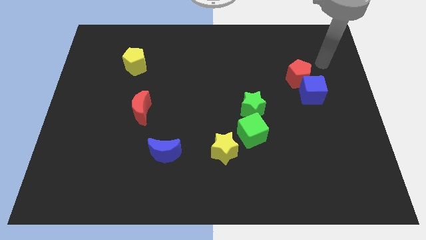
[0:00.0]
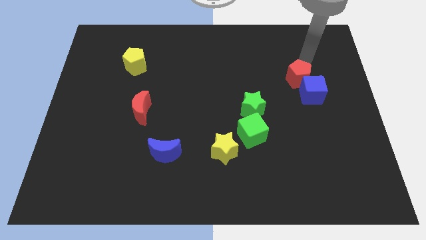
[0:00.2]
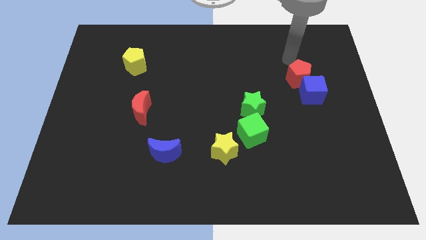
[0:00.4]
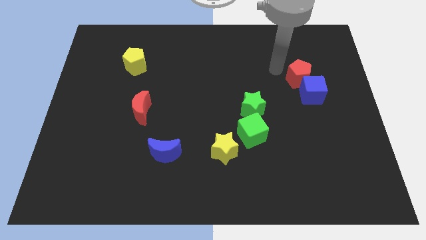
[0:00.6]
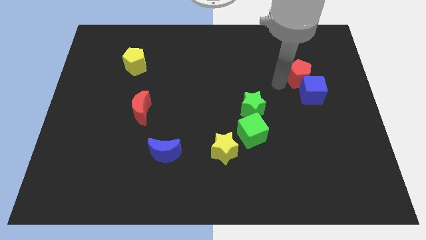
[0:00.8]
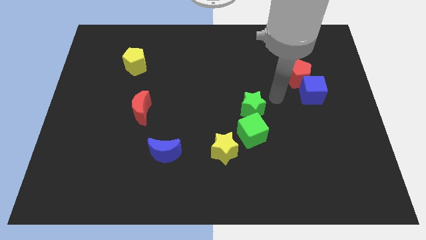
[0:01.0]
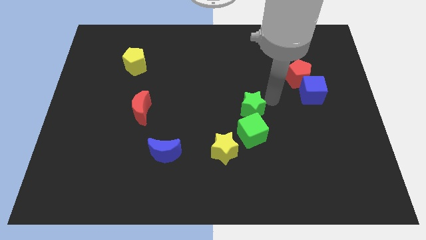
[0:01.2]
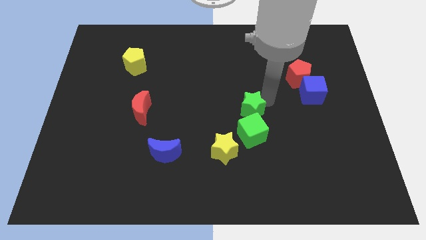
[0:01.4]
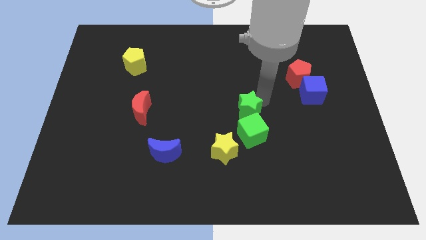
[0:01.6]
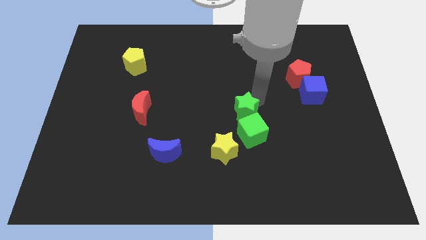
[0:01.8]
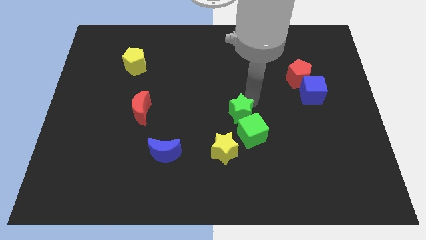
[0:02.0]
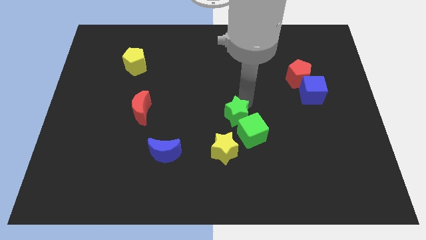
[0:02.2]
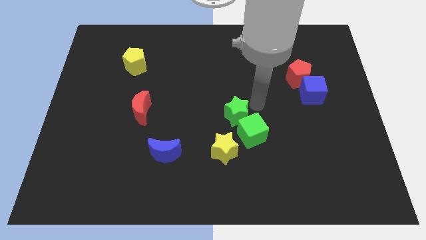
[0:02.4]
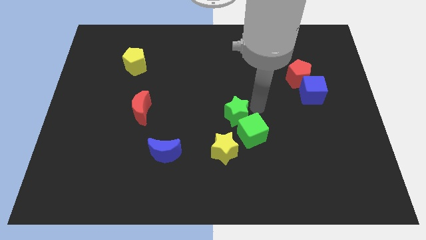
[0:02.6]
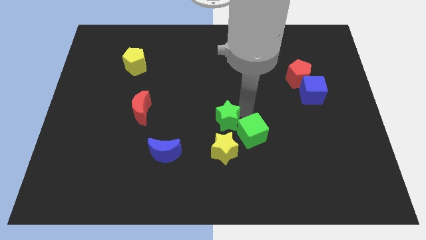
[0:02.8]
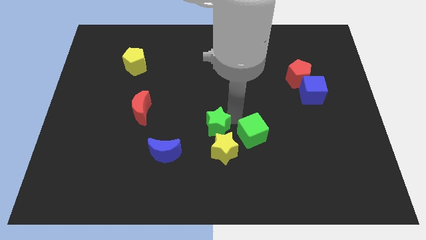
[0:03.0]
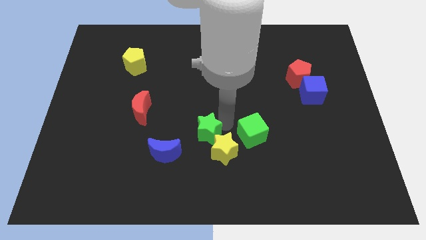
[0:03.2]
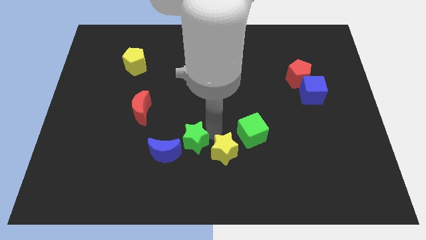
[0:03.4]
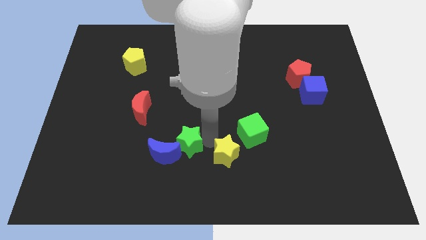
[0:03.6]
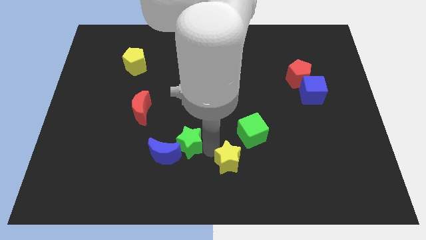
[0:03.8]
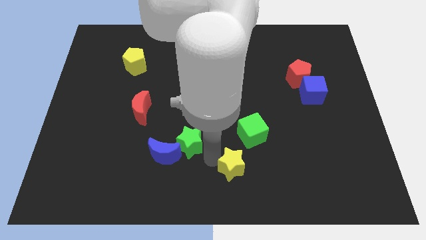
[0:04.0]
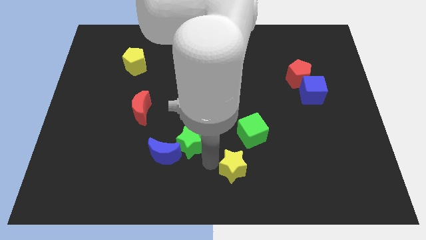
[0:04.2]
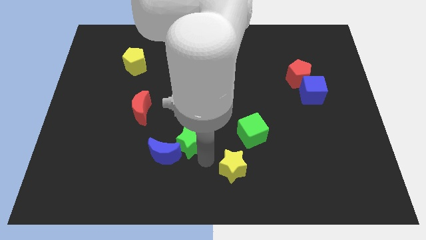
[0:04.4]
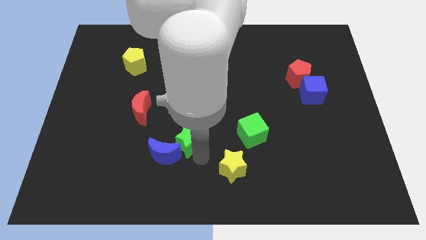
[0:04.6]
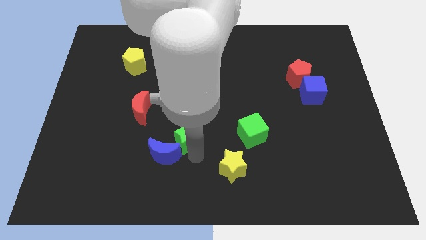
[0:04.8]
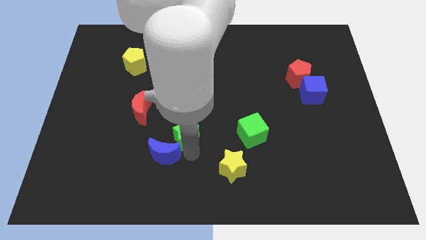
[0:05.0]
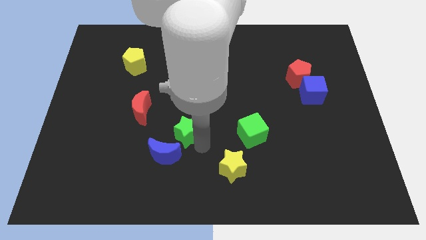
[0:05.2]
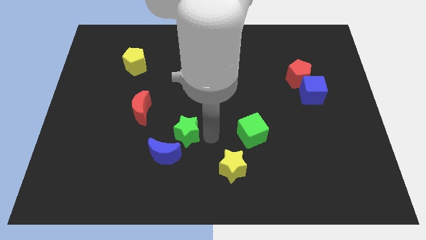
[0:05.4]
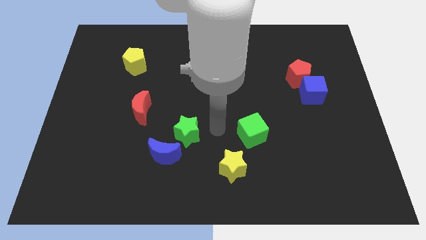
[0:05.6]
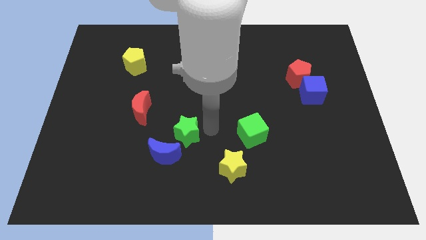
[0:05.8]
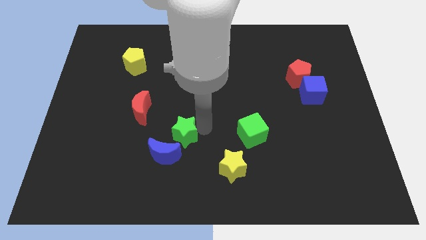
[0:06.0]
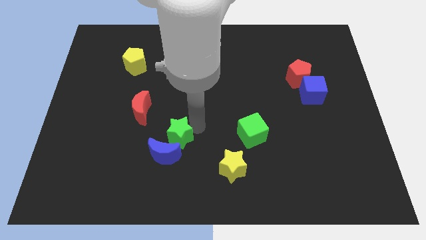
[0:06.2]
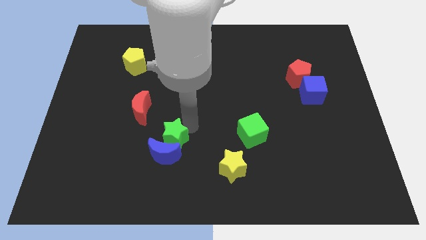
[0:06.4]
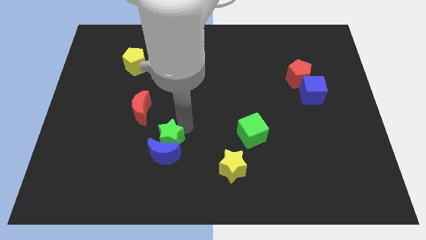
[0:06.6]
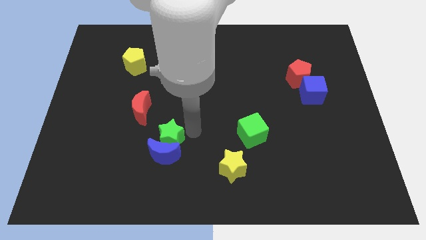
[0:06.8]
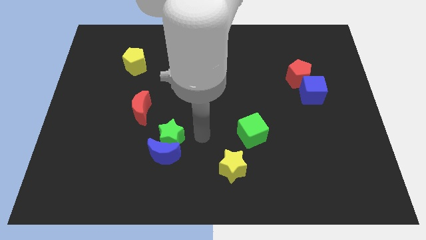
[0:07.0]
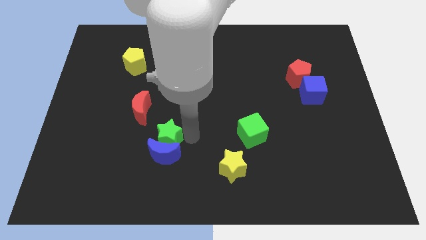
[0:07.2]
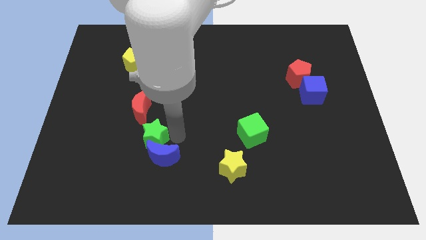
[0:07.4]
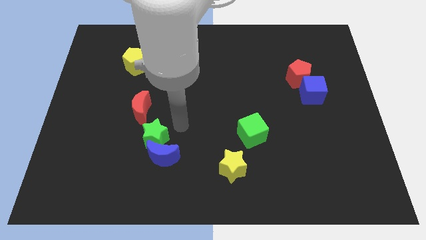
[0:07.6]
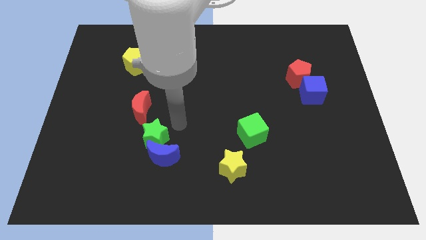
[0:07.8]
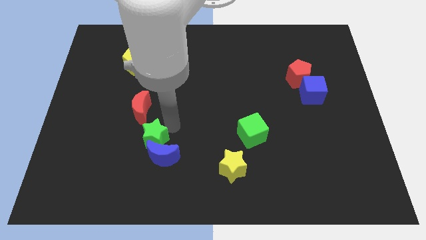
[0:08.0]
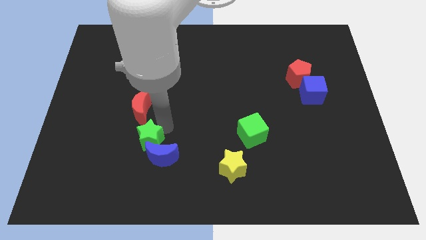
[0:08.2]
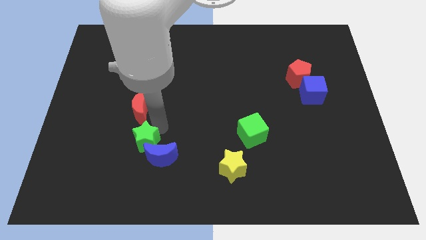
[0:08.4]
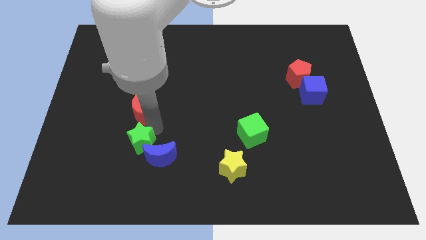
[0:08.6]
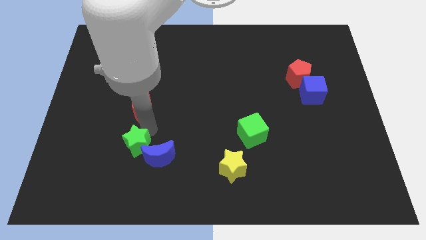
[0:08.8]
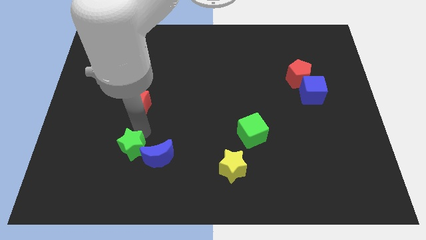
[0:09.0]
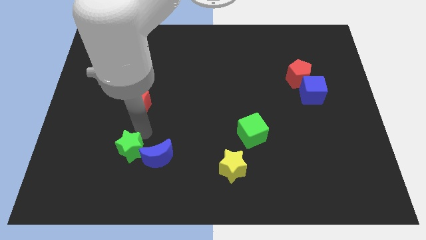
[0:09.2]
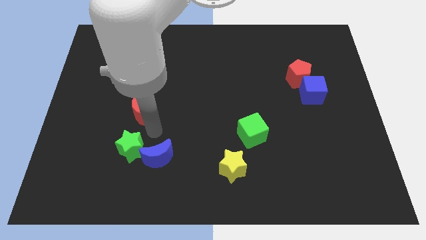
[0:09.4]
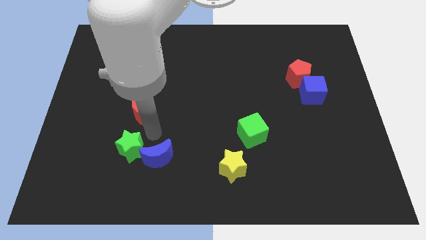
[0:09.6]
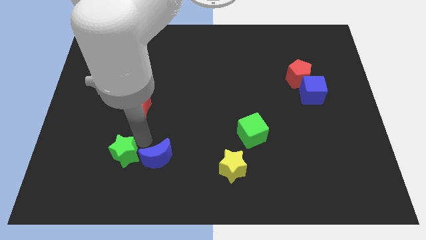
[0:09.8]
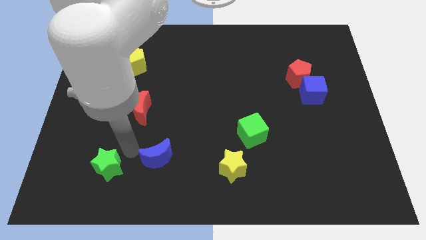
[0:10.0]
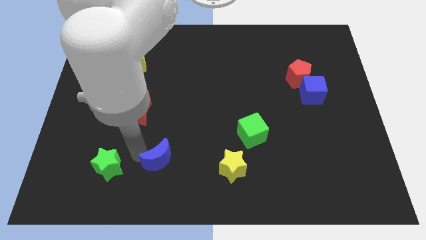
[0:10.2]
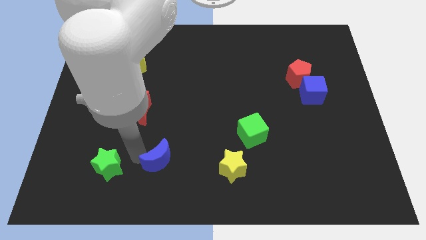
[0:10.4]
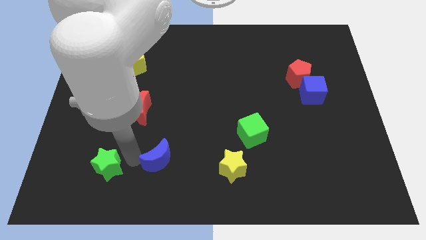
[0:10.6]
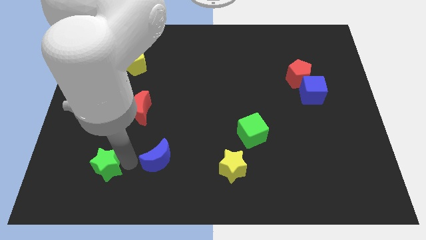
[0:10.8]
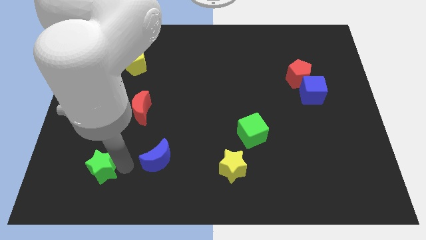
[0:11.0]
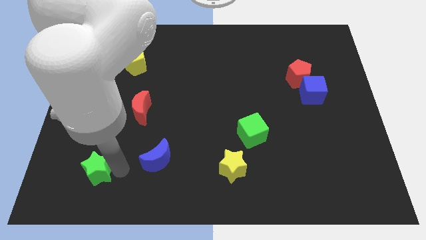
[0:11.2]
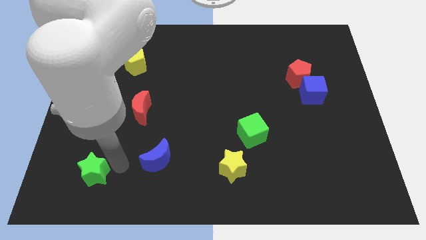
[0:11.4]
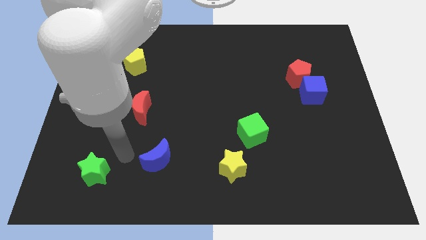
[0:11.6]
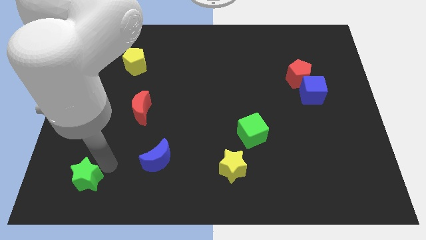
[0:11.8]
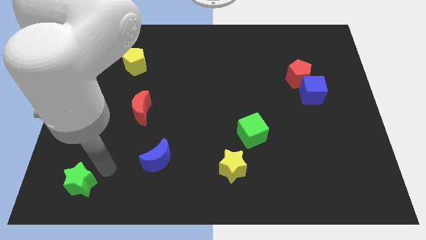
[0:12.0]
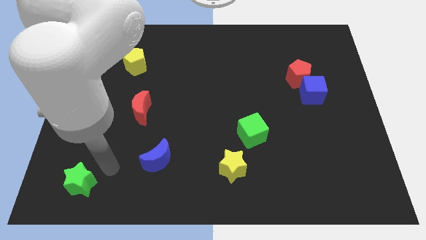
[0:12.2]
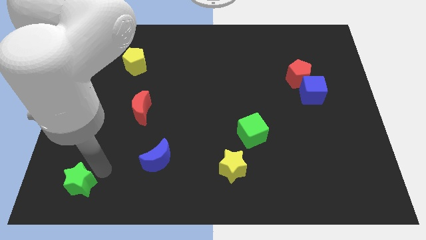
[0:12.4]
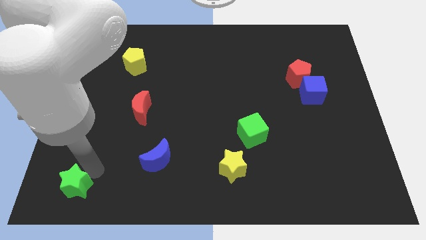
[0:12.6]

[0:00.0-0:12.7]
slide the green star to the lower left corner
